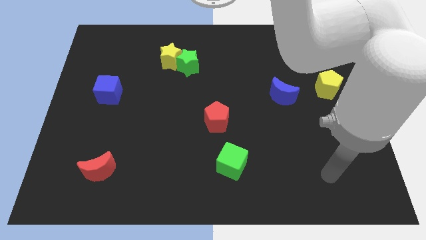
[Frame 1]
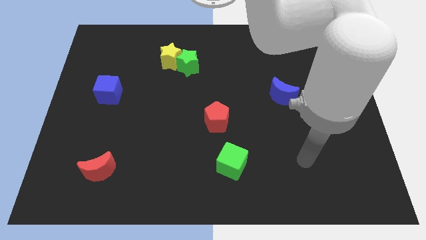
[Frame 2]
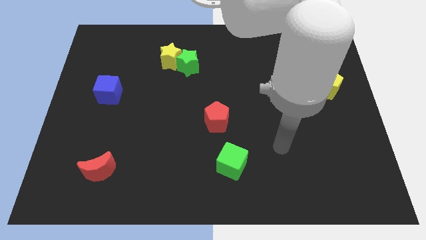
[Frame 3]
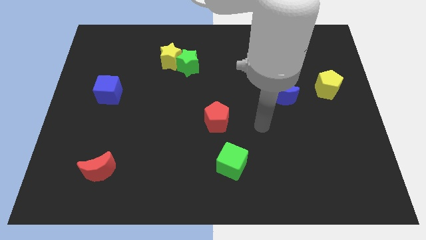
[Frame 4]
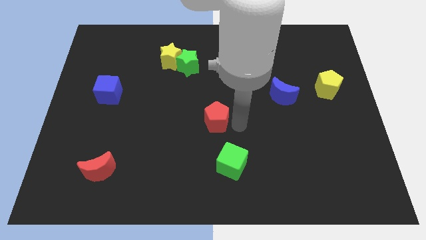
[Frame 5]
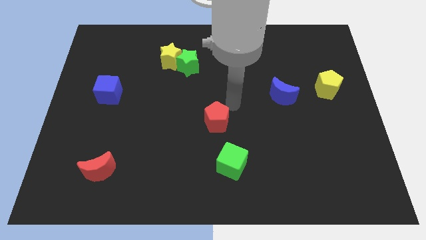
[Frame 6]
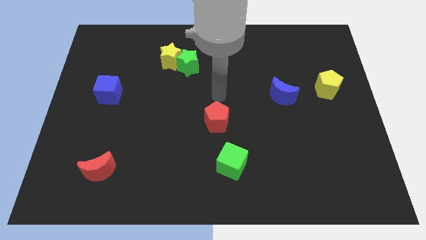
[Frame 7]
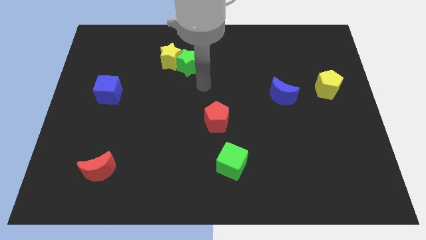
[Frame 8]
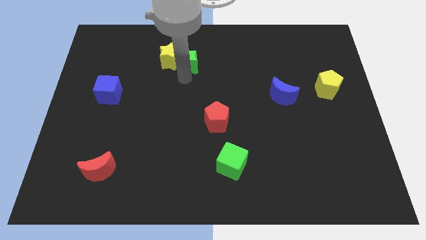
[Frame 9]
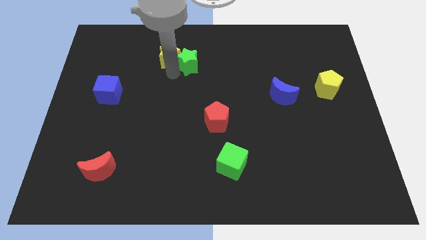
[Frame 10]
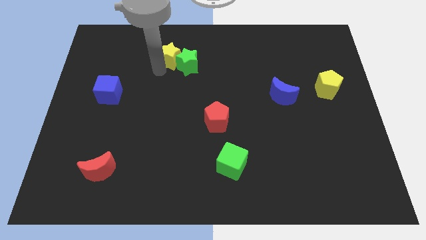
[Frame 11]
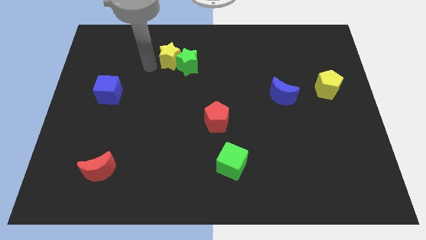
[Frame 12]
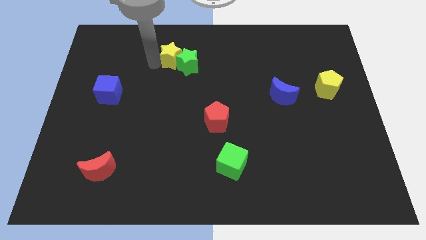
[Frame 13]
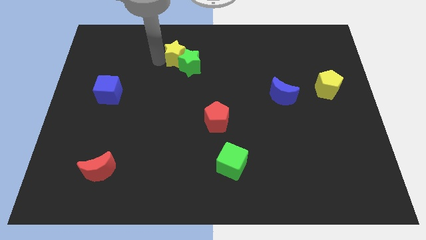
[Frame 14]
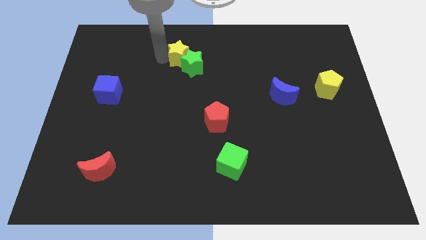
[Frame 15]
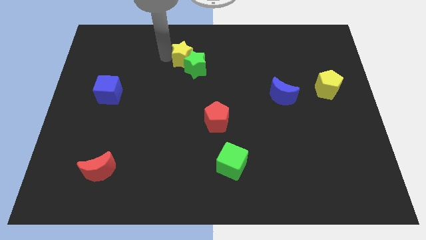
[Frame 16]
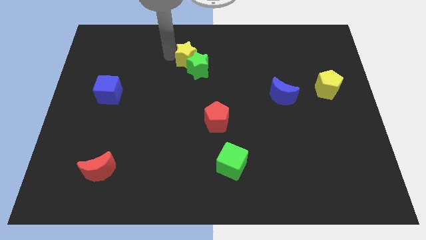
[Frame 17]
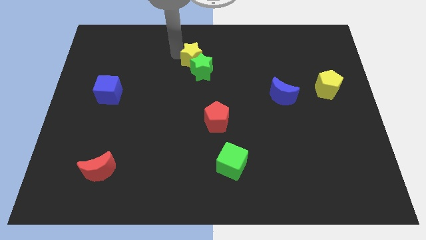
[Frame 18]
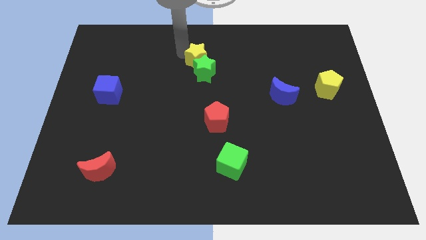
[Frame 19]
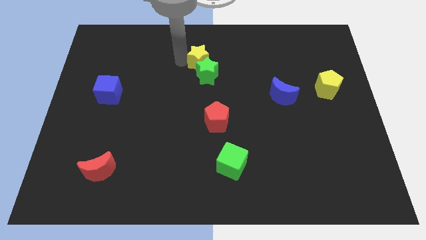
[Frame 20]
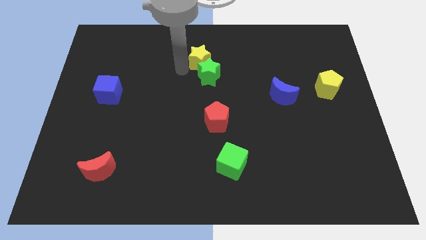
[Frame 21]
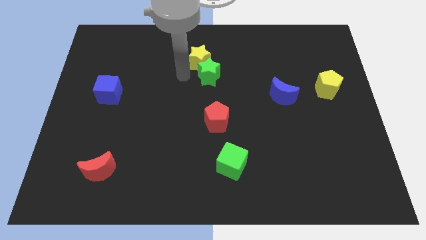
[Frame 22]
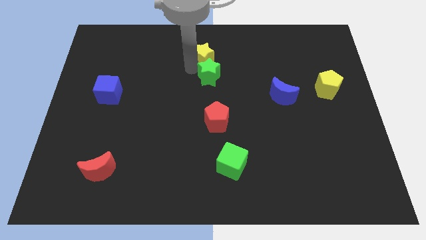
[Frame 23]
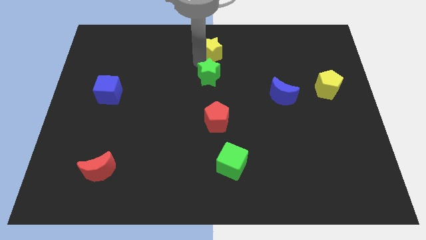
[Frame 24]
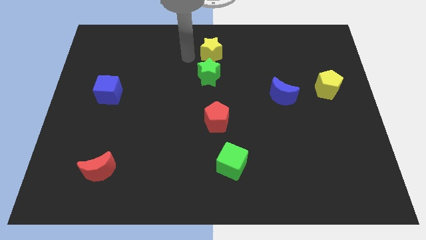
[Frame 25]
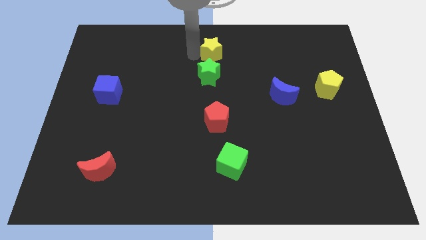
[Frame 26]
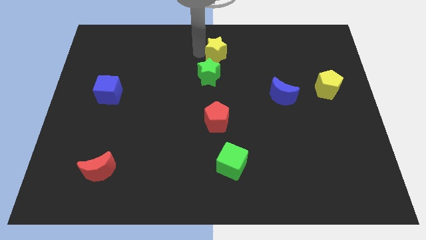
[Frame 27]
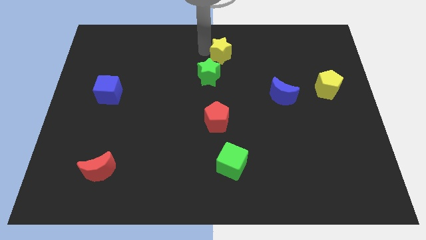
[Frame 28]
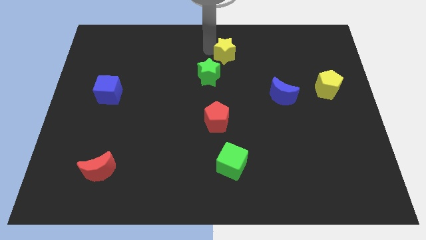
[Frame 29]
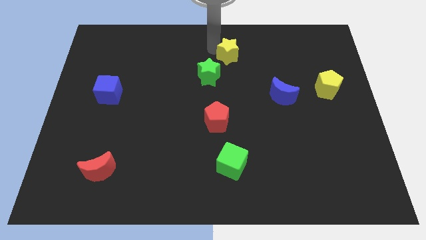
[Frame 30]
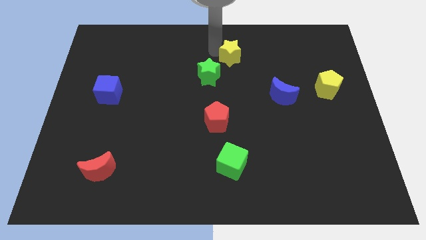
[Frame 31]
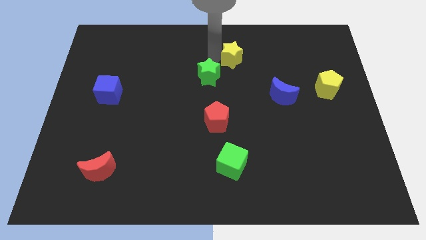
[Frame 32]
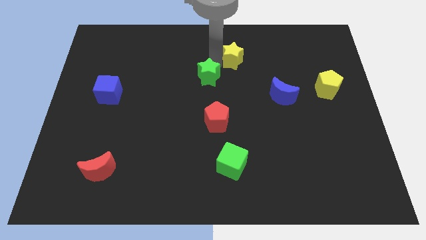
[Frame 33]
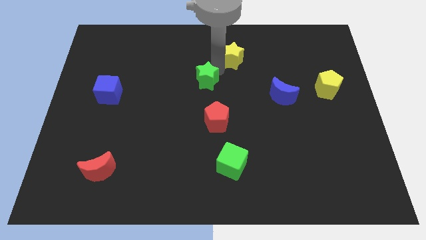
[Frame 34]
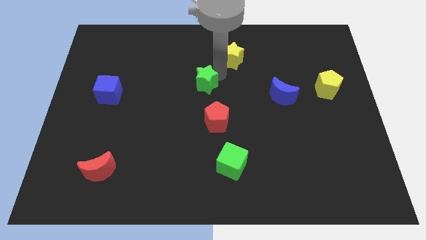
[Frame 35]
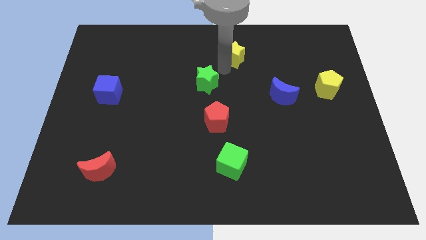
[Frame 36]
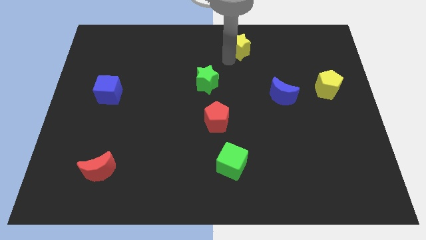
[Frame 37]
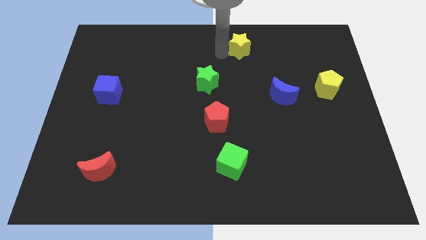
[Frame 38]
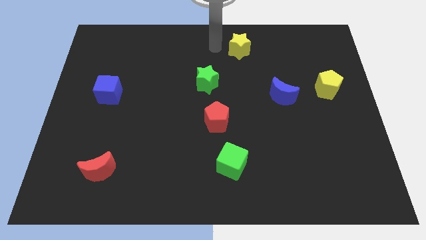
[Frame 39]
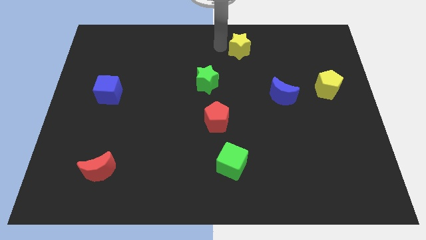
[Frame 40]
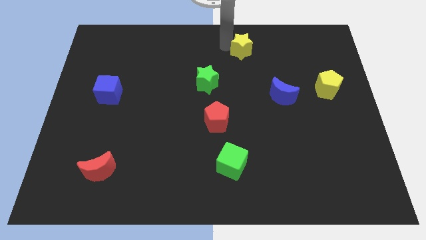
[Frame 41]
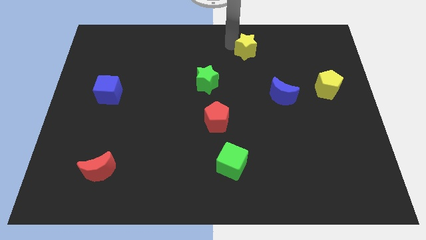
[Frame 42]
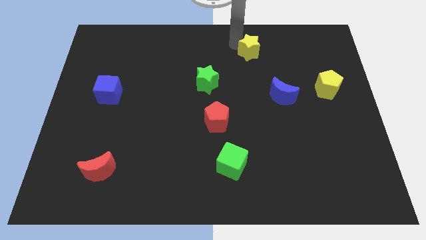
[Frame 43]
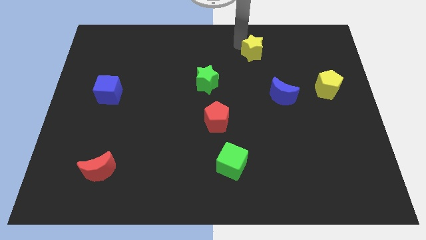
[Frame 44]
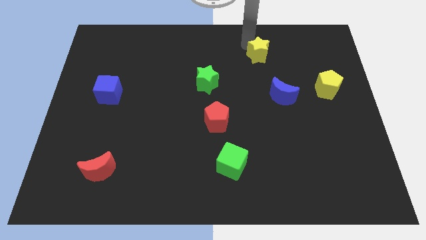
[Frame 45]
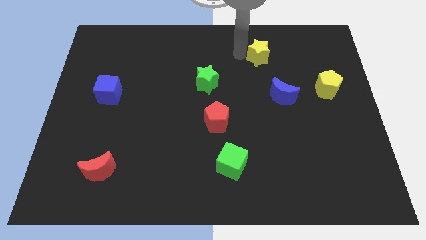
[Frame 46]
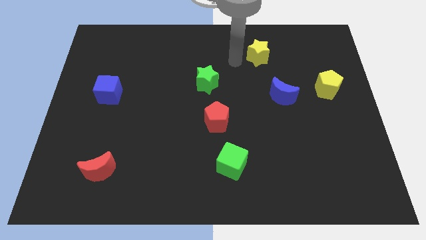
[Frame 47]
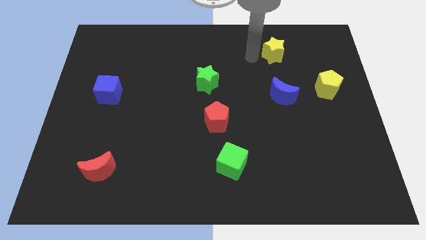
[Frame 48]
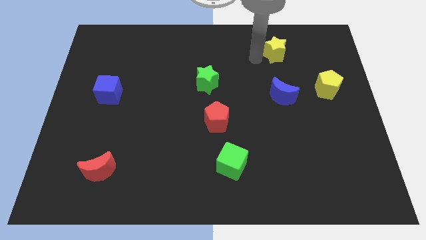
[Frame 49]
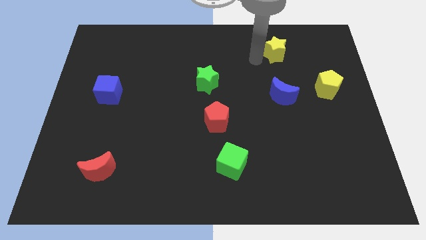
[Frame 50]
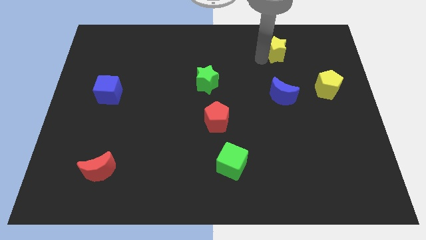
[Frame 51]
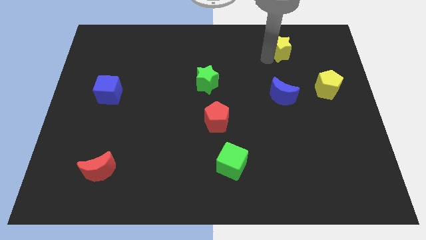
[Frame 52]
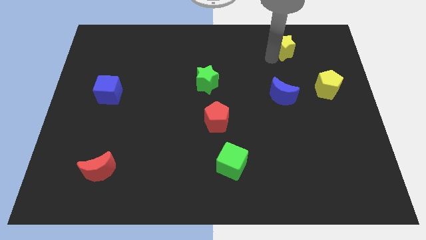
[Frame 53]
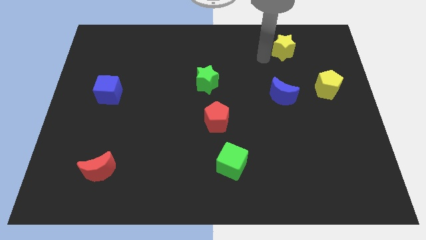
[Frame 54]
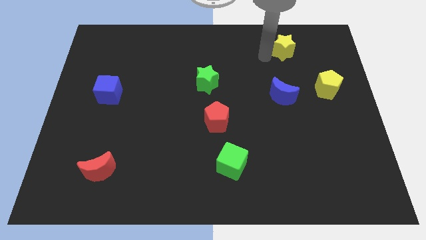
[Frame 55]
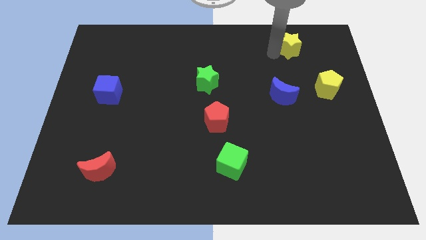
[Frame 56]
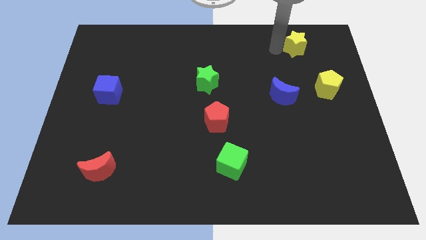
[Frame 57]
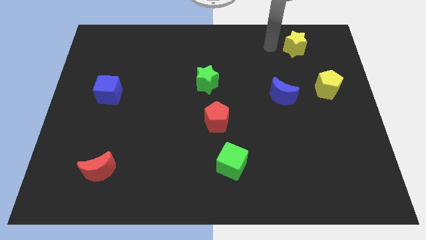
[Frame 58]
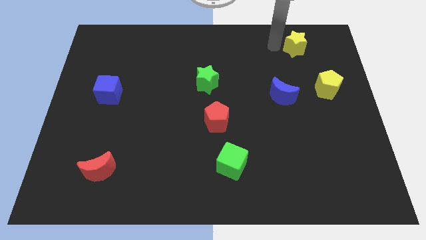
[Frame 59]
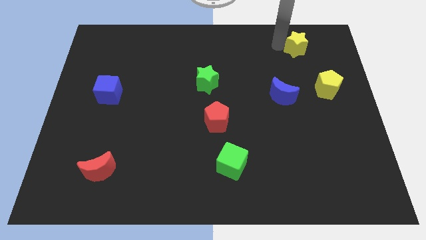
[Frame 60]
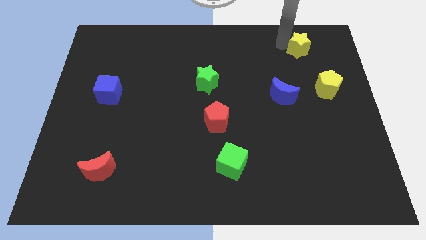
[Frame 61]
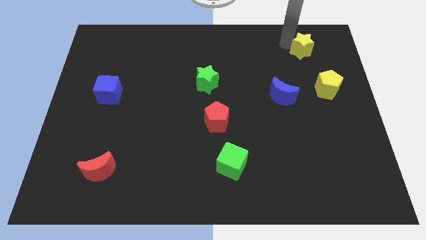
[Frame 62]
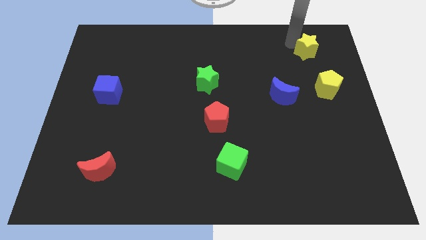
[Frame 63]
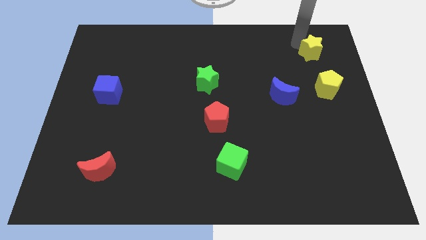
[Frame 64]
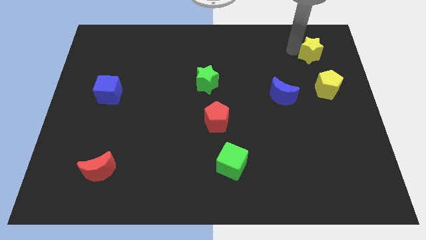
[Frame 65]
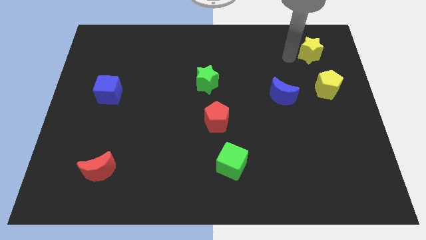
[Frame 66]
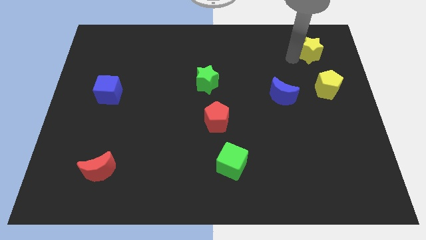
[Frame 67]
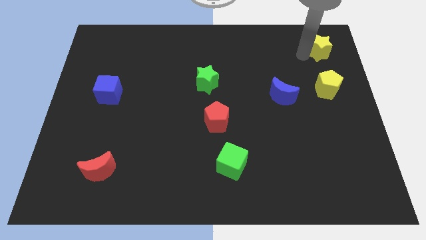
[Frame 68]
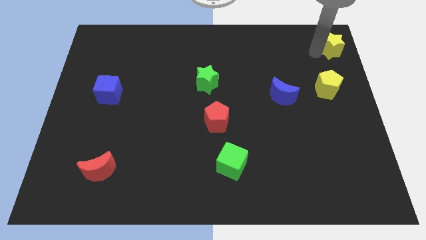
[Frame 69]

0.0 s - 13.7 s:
put the yellow star to the upper right corner
